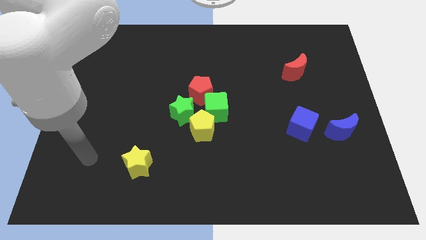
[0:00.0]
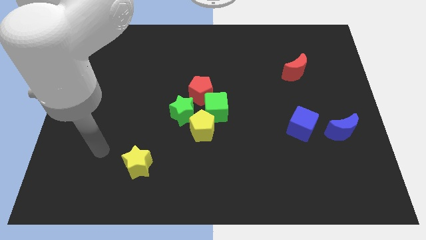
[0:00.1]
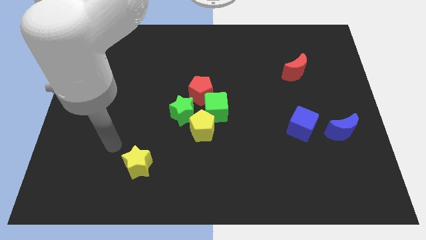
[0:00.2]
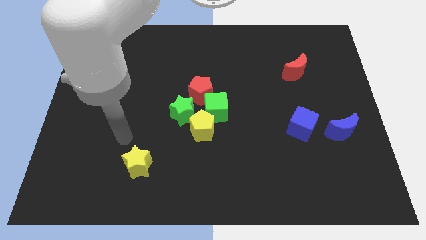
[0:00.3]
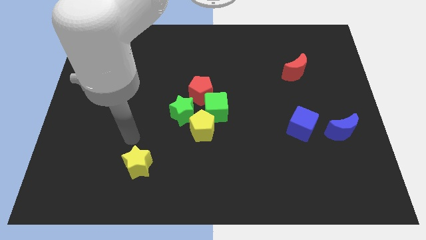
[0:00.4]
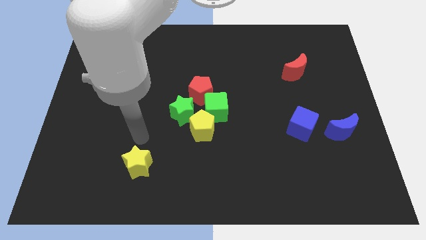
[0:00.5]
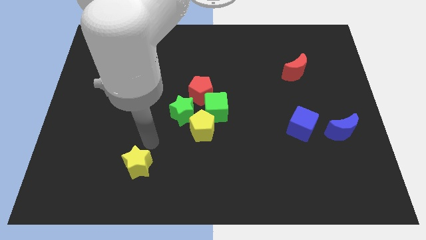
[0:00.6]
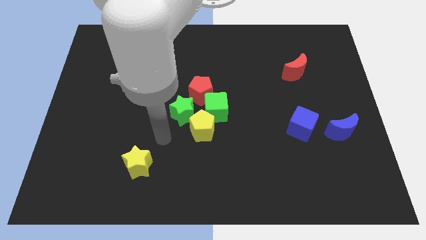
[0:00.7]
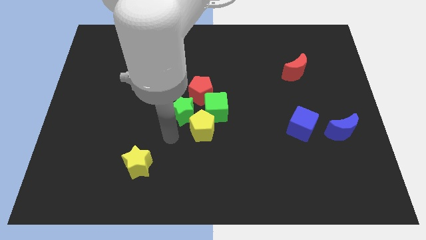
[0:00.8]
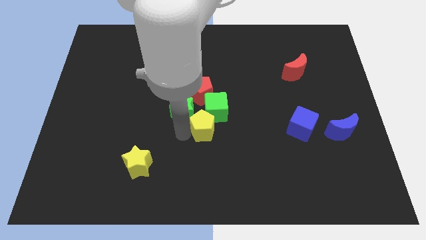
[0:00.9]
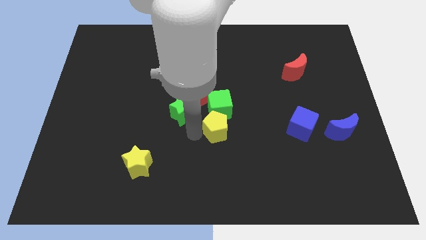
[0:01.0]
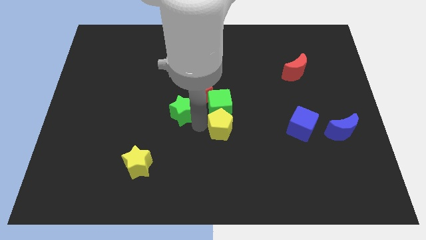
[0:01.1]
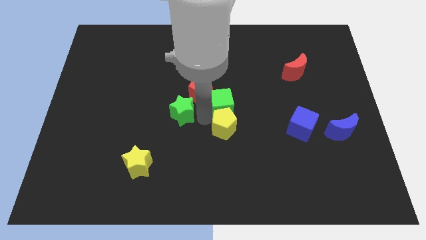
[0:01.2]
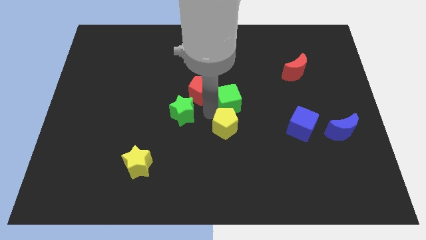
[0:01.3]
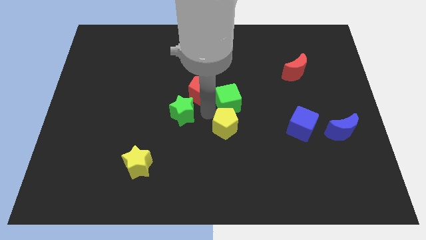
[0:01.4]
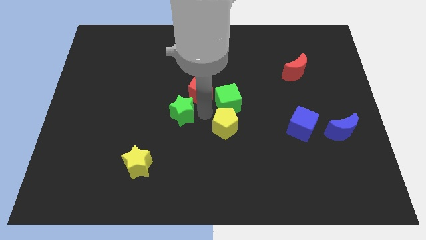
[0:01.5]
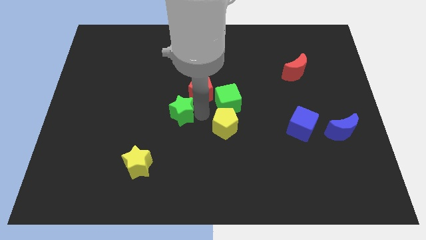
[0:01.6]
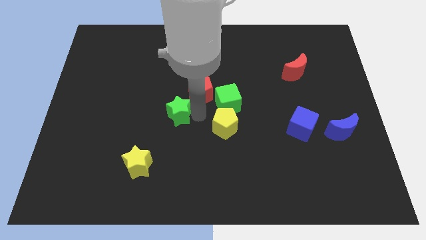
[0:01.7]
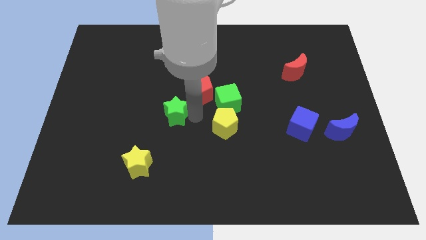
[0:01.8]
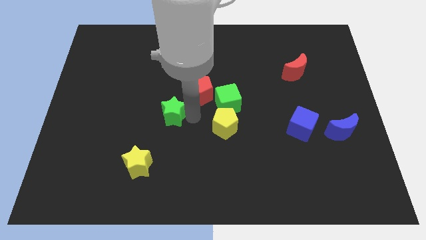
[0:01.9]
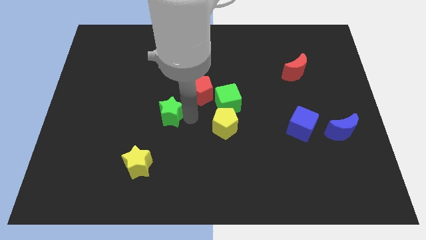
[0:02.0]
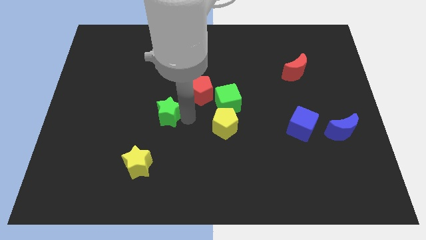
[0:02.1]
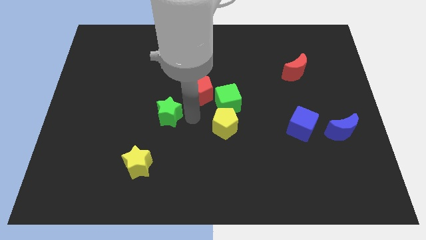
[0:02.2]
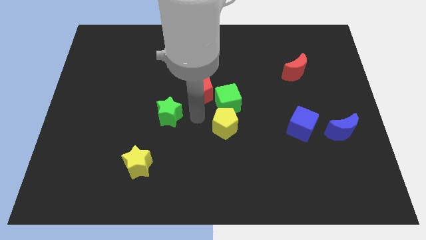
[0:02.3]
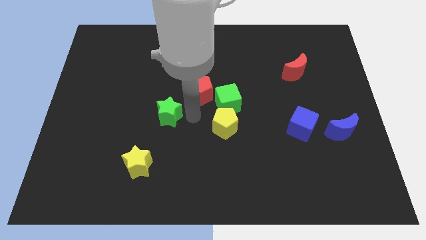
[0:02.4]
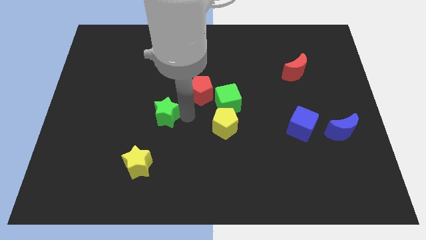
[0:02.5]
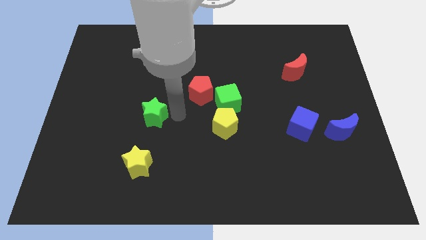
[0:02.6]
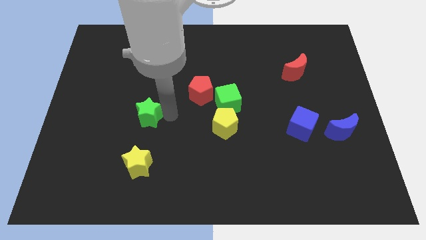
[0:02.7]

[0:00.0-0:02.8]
push the green star to the left a little bit

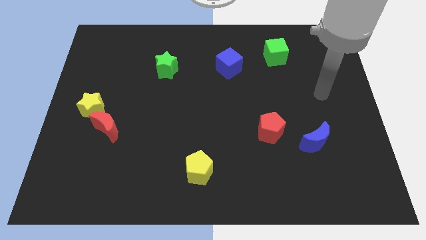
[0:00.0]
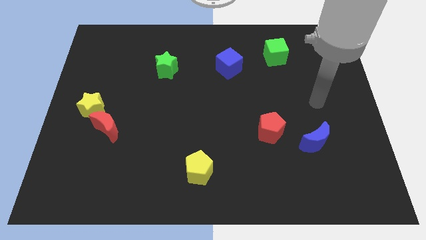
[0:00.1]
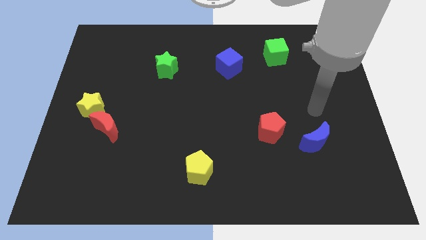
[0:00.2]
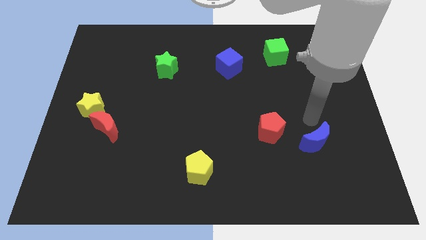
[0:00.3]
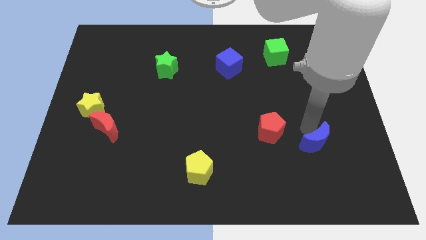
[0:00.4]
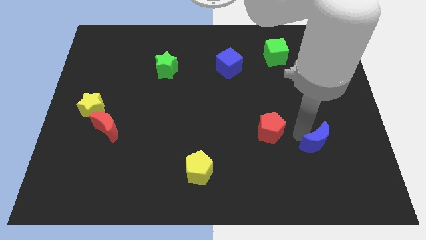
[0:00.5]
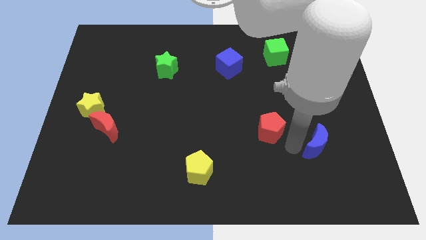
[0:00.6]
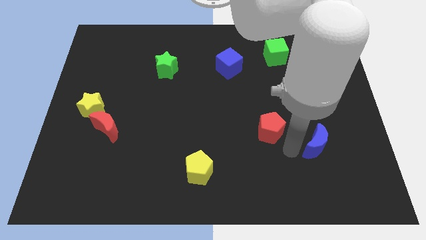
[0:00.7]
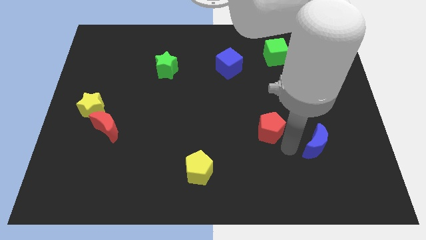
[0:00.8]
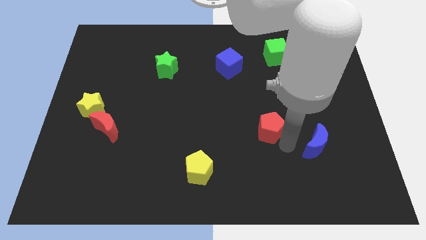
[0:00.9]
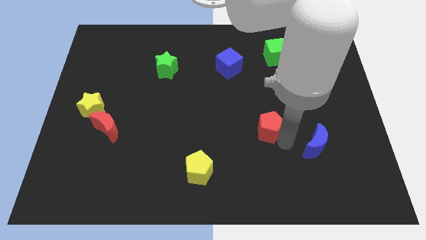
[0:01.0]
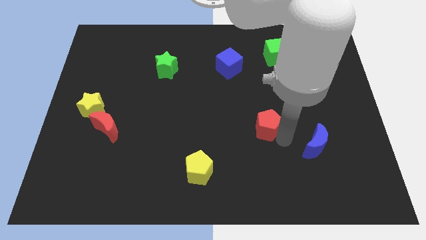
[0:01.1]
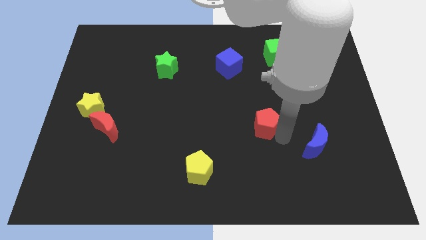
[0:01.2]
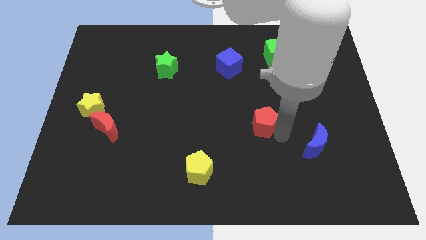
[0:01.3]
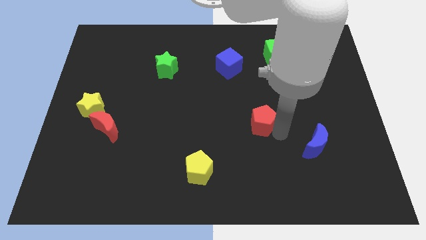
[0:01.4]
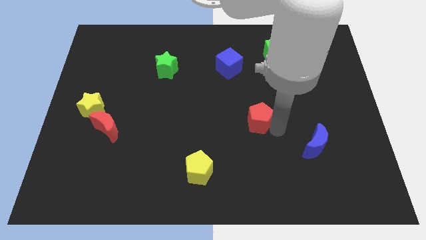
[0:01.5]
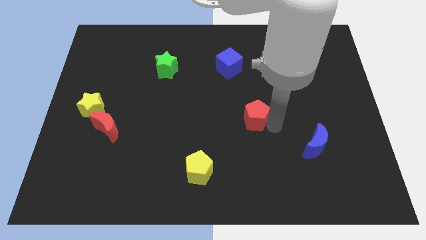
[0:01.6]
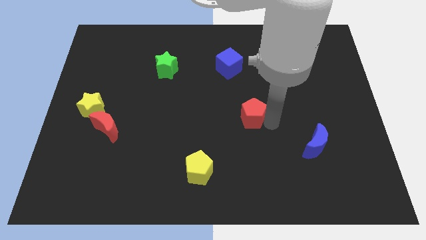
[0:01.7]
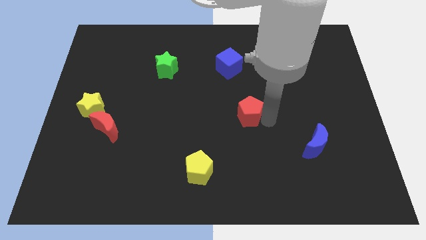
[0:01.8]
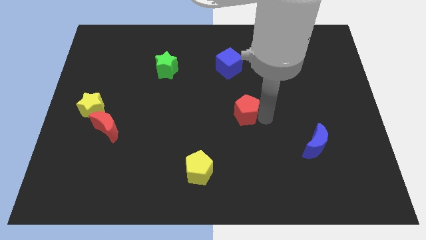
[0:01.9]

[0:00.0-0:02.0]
slightly move the red pentagon diagonally upwards and left

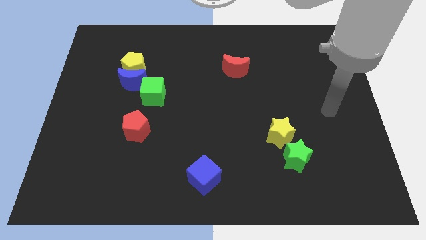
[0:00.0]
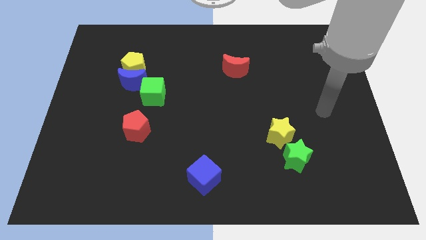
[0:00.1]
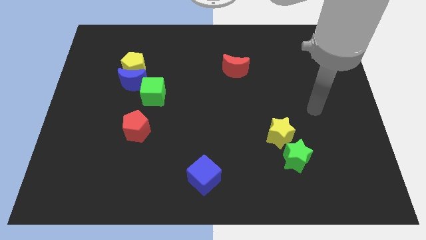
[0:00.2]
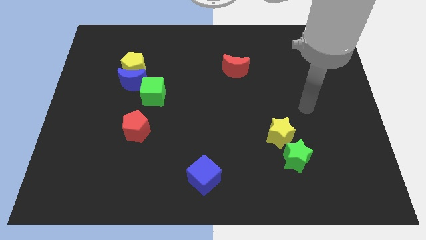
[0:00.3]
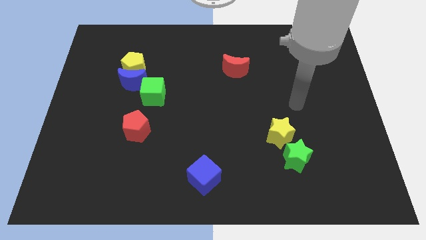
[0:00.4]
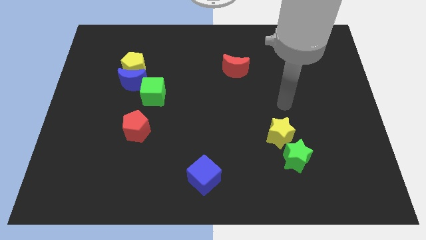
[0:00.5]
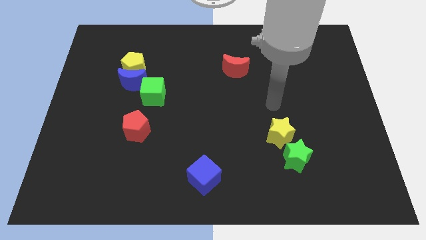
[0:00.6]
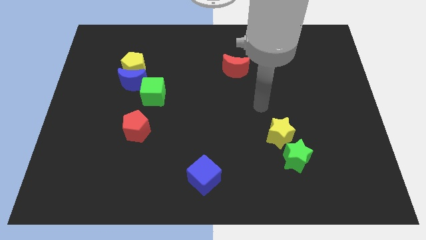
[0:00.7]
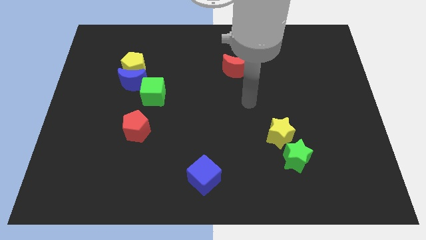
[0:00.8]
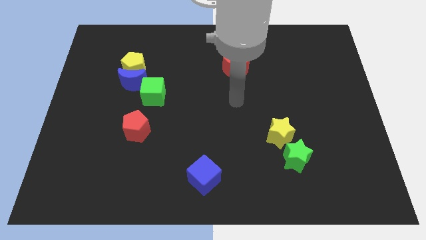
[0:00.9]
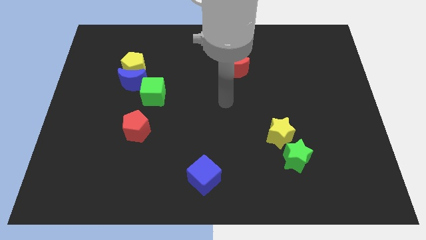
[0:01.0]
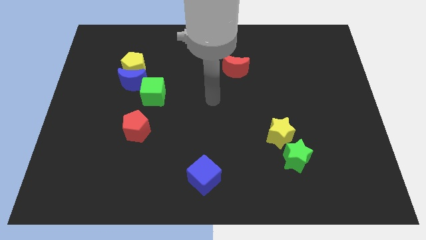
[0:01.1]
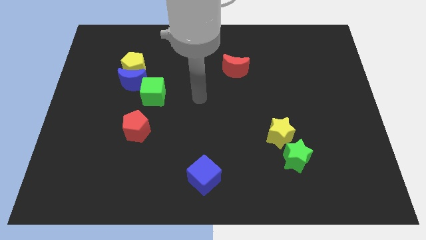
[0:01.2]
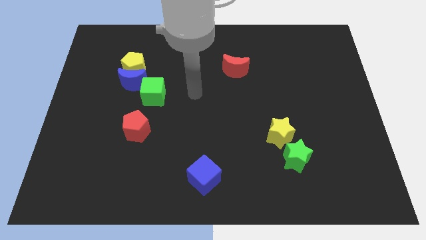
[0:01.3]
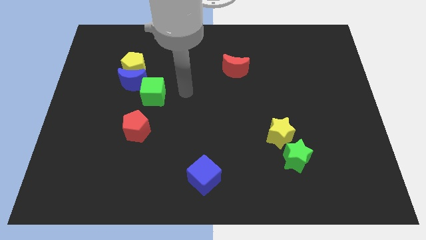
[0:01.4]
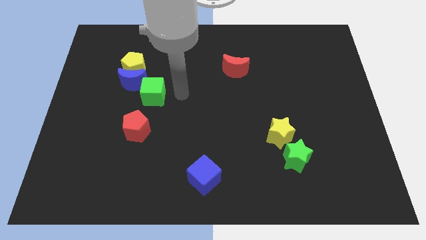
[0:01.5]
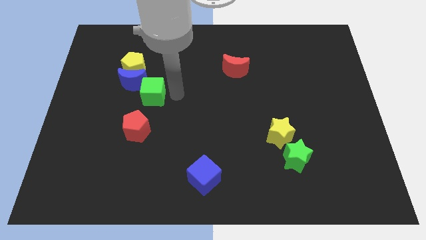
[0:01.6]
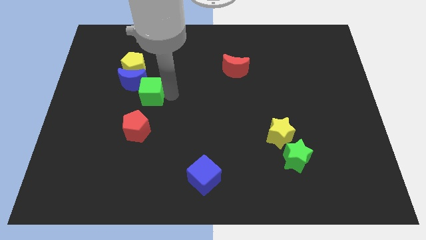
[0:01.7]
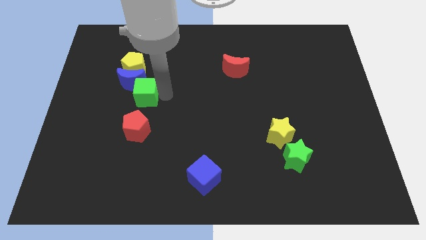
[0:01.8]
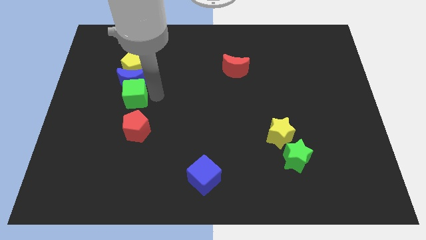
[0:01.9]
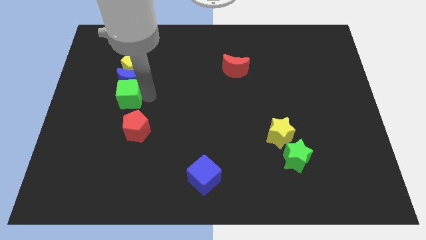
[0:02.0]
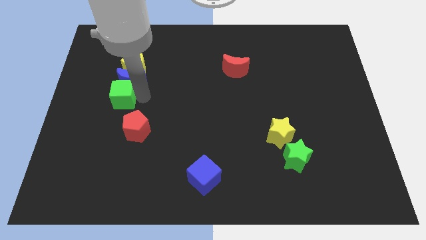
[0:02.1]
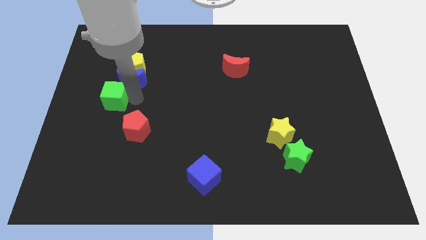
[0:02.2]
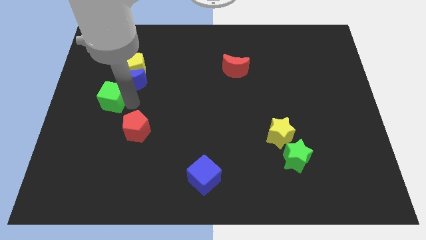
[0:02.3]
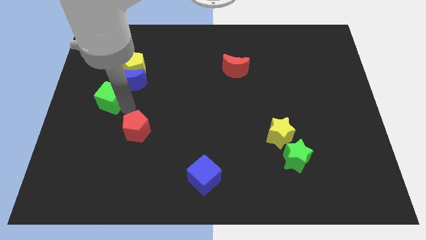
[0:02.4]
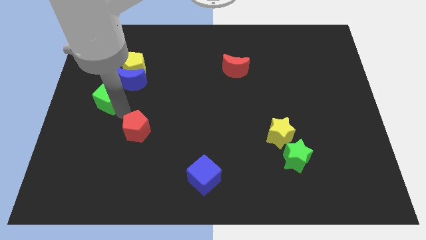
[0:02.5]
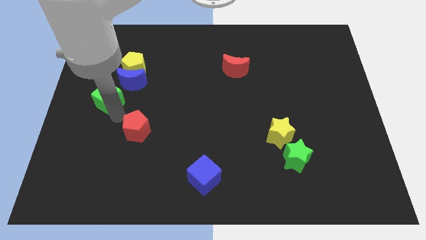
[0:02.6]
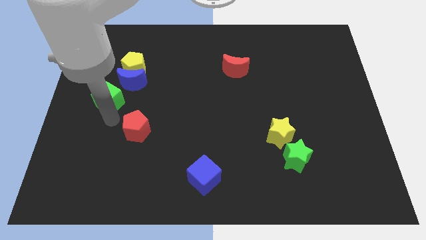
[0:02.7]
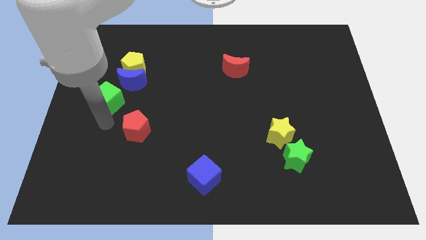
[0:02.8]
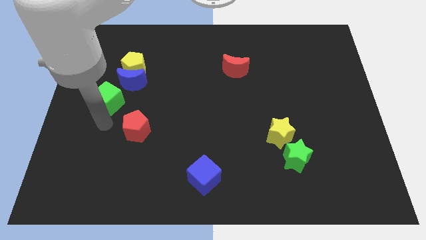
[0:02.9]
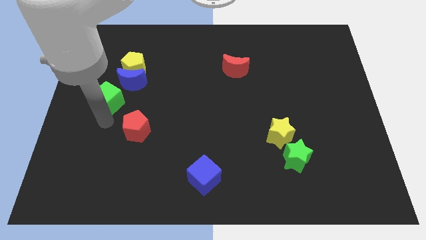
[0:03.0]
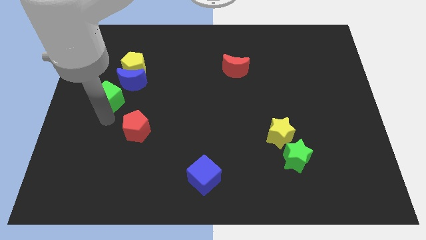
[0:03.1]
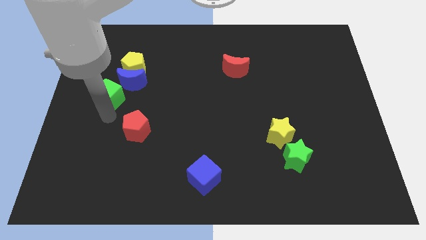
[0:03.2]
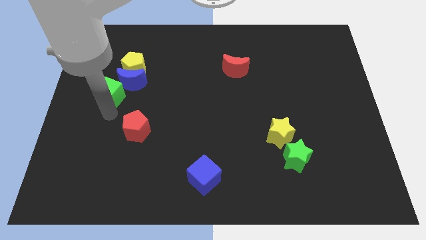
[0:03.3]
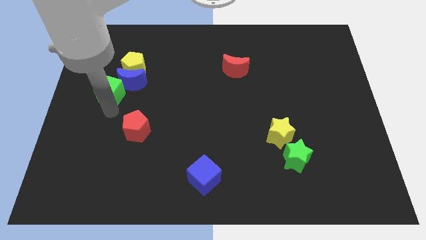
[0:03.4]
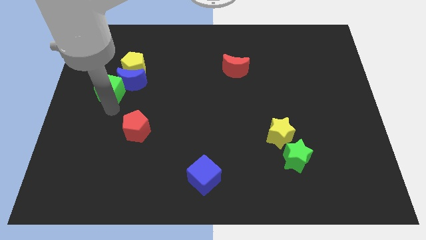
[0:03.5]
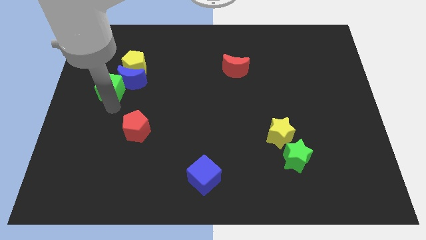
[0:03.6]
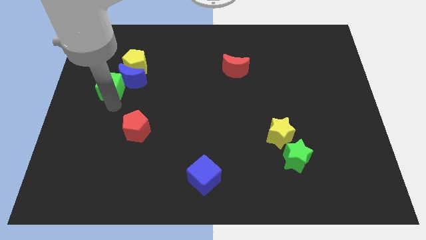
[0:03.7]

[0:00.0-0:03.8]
push the green cube up and left diagonally a little bit
